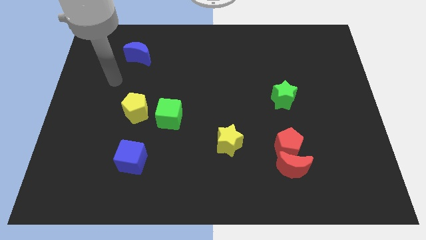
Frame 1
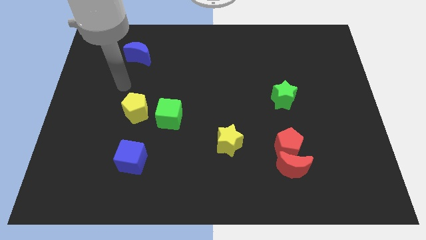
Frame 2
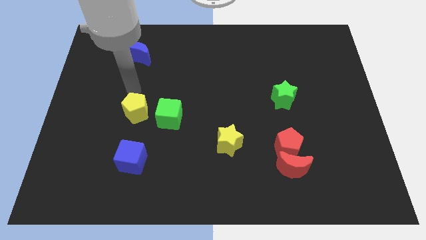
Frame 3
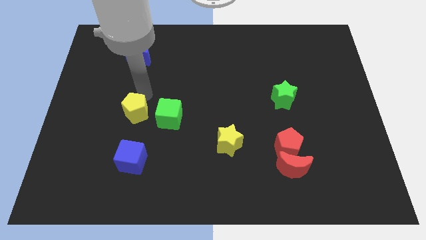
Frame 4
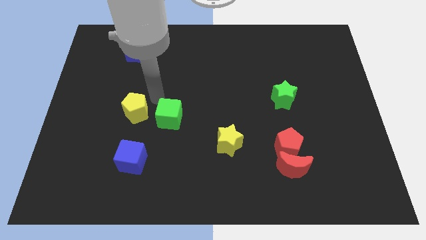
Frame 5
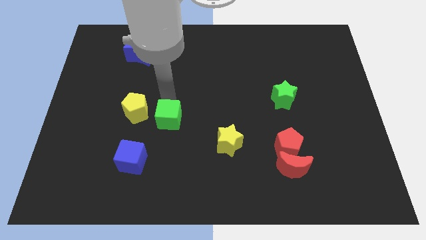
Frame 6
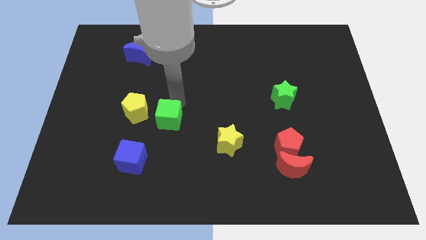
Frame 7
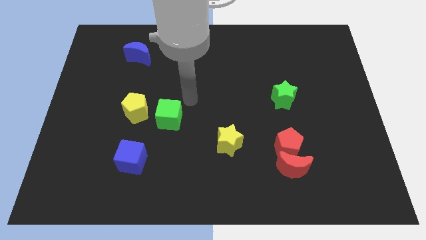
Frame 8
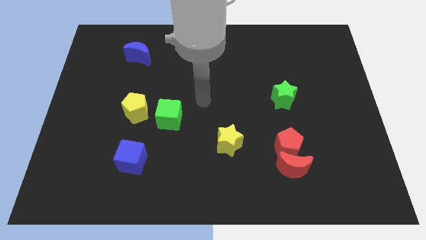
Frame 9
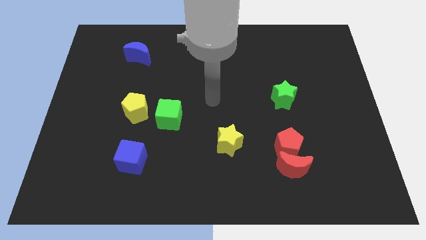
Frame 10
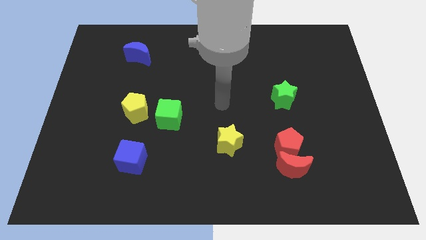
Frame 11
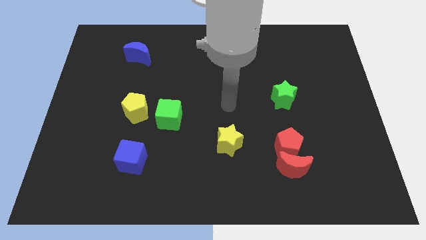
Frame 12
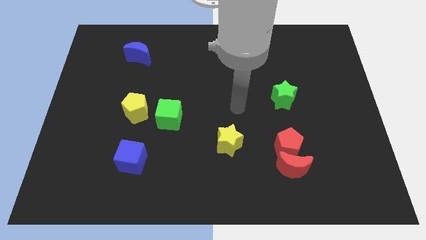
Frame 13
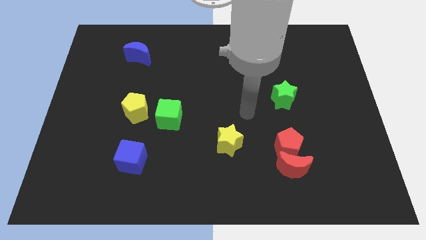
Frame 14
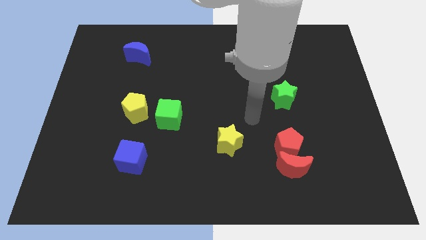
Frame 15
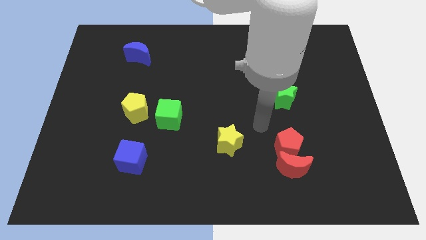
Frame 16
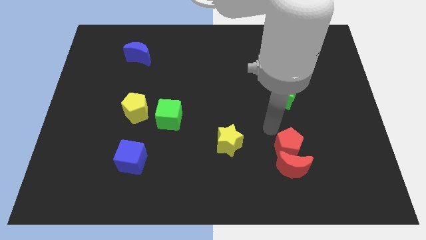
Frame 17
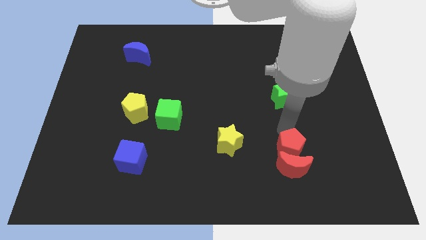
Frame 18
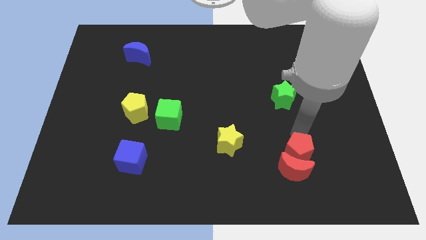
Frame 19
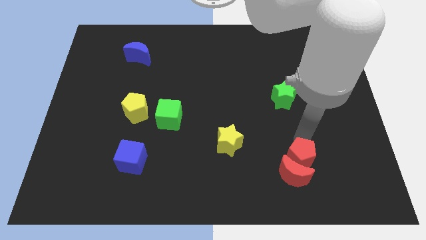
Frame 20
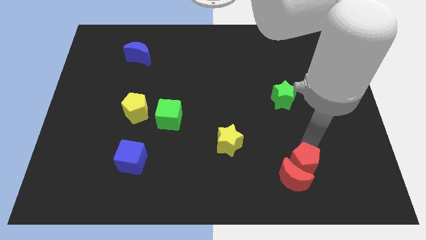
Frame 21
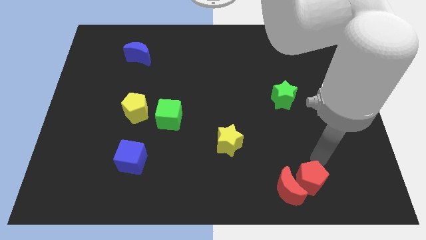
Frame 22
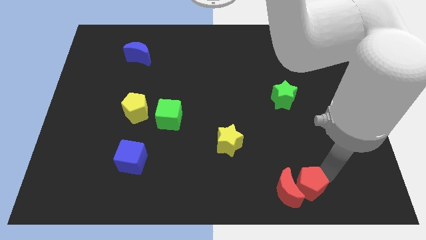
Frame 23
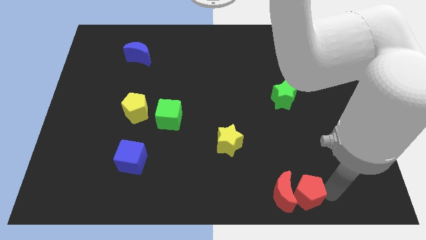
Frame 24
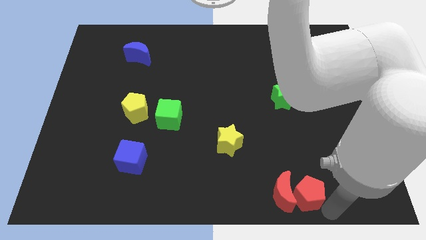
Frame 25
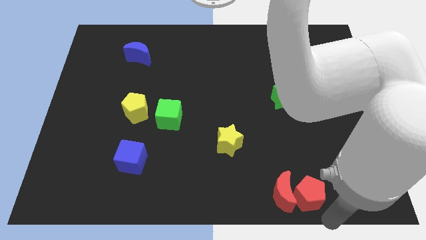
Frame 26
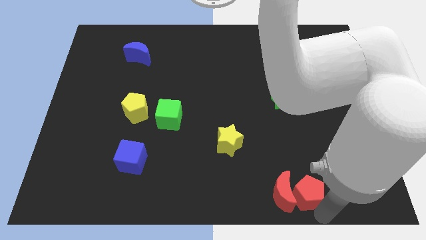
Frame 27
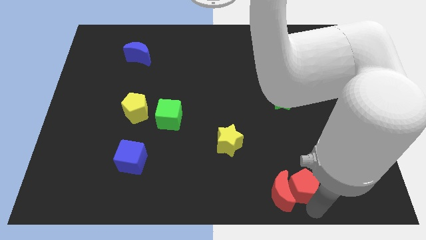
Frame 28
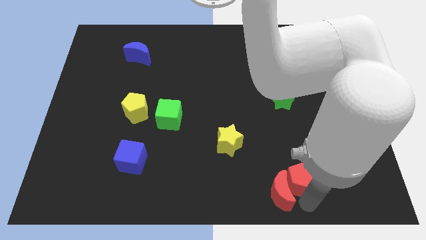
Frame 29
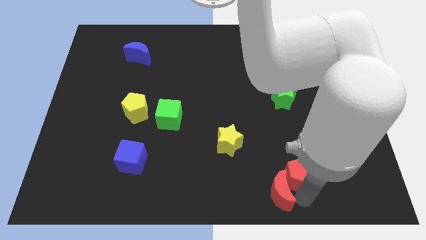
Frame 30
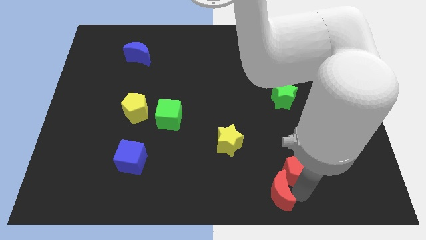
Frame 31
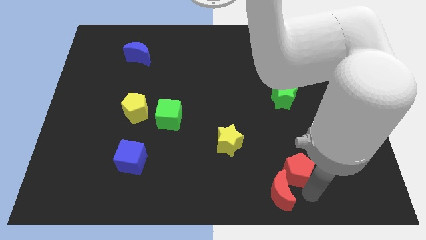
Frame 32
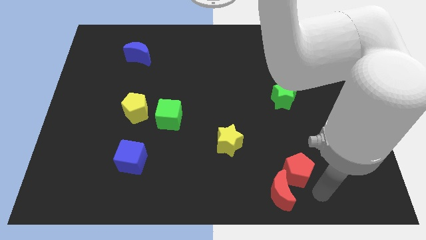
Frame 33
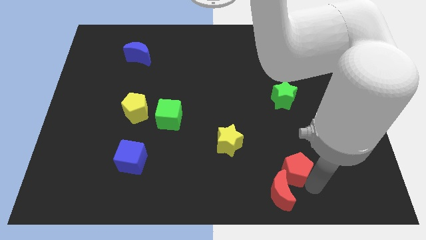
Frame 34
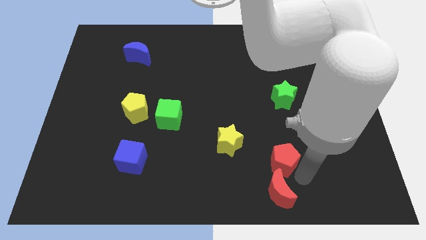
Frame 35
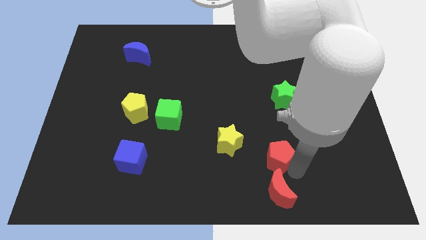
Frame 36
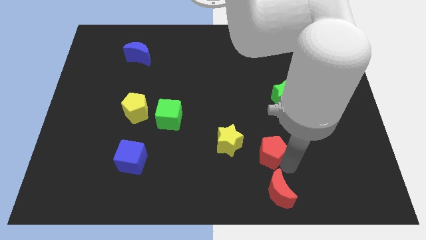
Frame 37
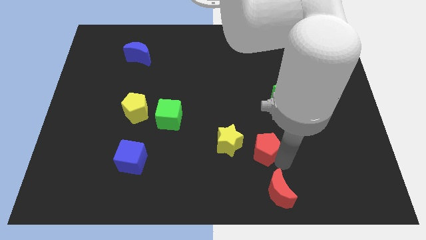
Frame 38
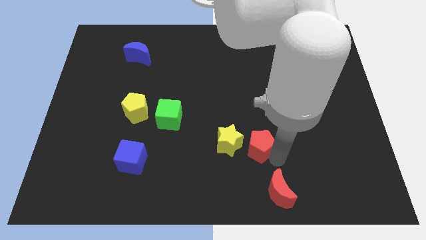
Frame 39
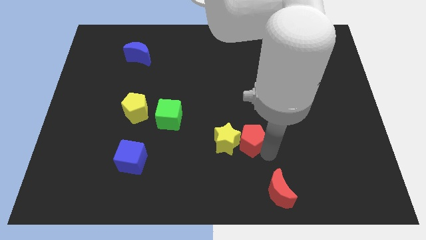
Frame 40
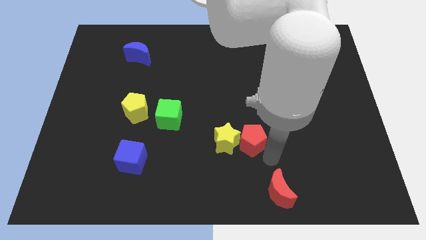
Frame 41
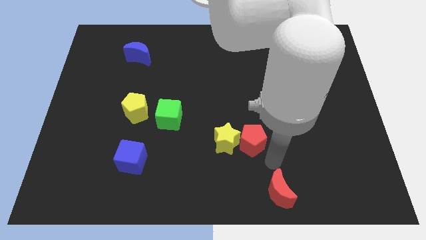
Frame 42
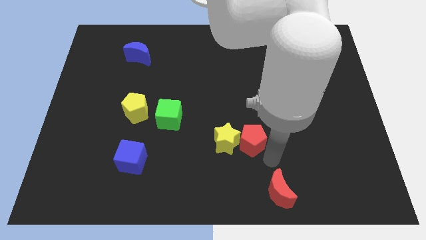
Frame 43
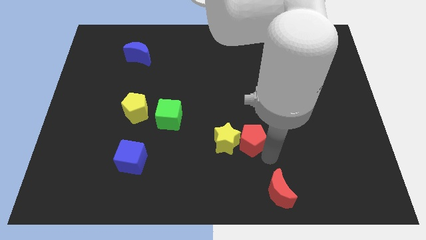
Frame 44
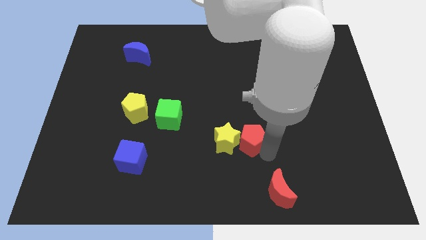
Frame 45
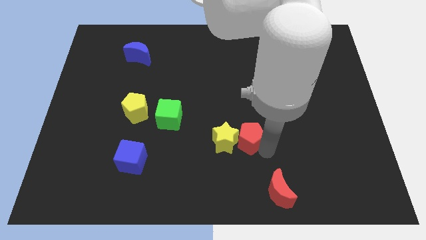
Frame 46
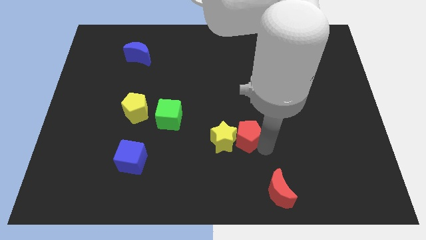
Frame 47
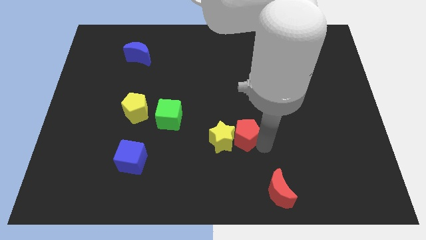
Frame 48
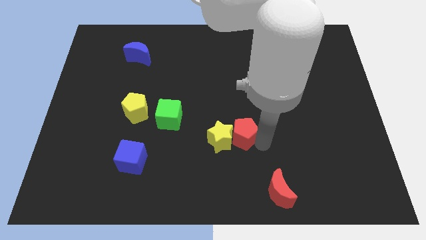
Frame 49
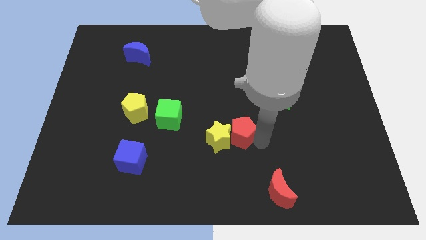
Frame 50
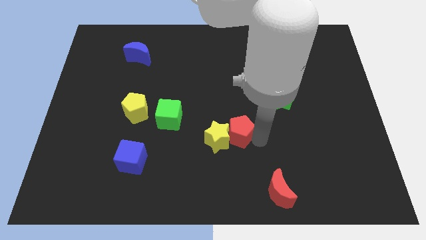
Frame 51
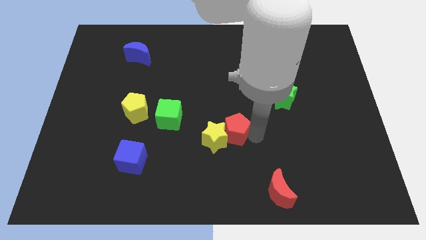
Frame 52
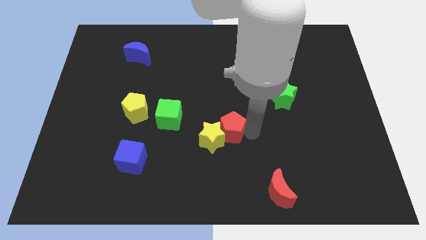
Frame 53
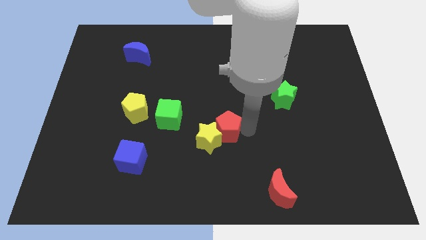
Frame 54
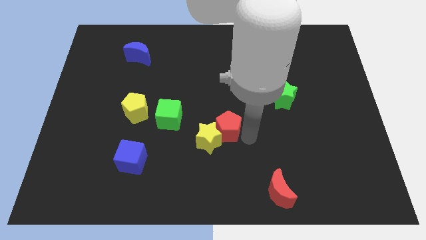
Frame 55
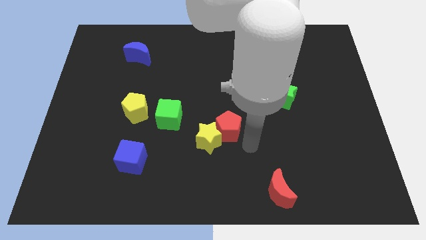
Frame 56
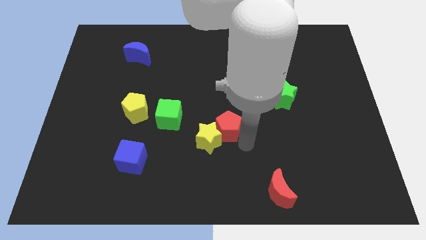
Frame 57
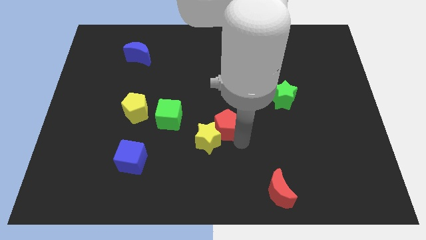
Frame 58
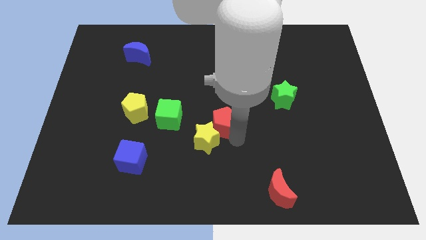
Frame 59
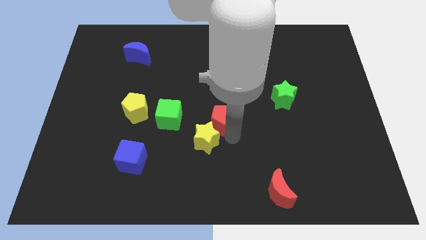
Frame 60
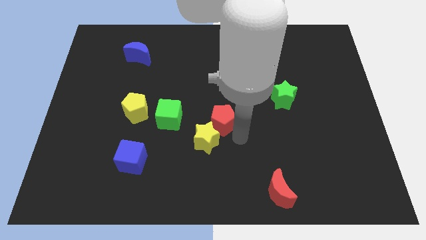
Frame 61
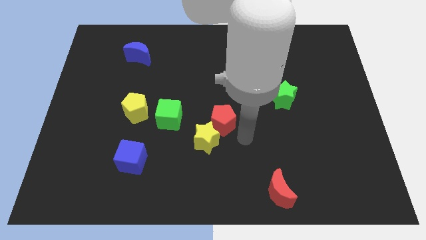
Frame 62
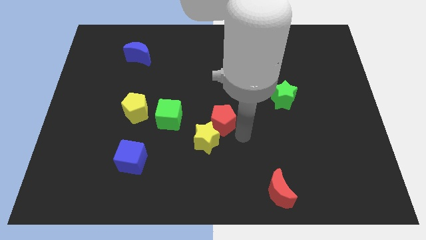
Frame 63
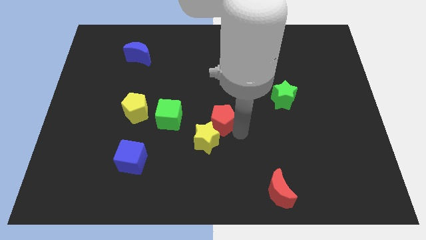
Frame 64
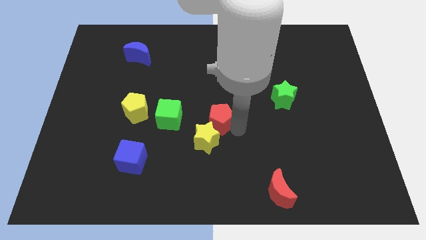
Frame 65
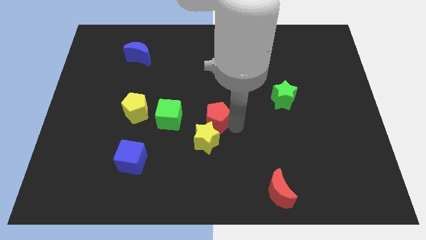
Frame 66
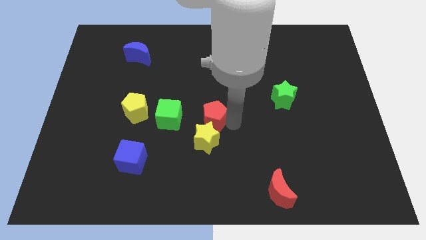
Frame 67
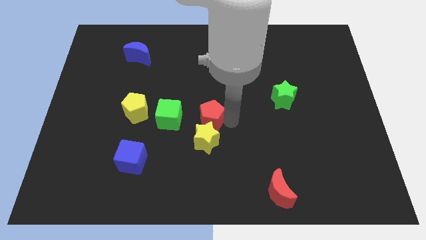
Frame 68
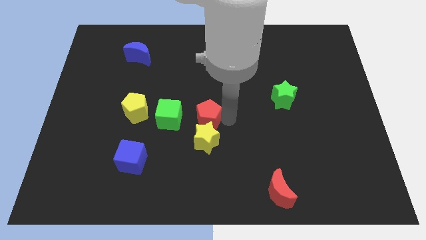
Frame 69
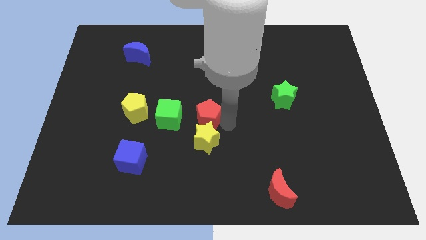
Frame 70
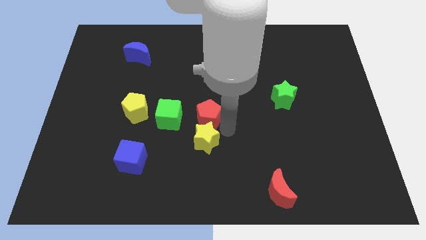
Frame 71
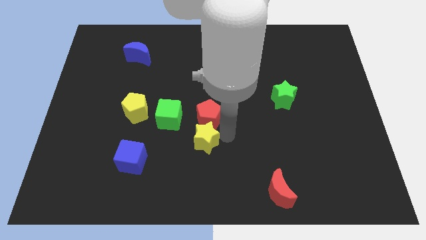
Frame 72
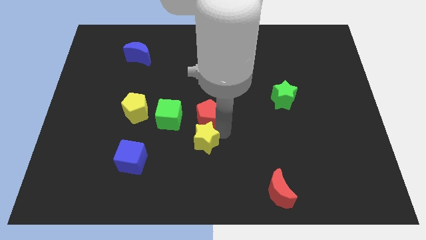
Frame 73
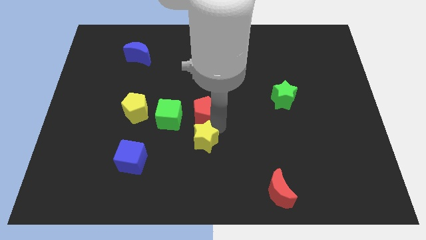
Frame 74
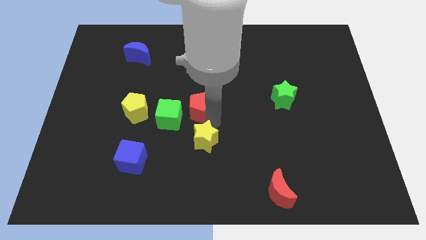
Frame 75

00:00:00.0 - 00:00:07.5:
put the red pentagon diagonally up and to the right of the green cube
